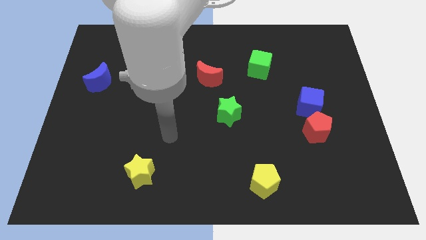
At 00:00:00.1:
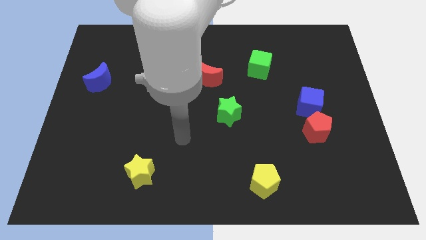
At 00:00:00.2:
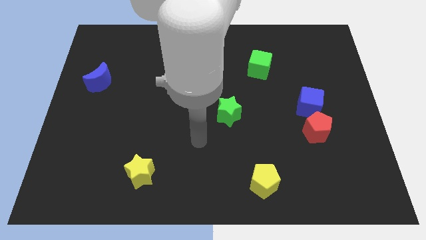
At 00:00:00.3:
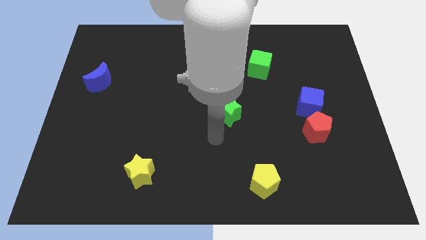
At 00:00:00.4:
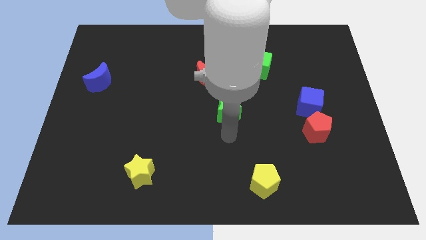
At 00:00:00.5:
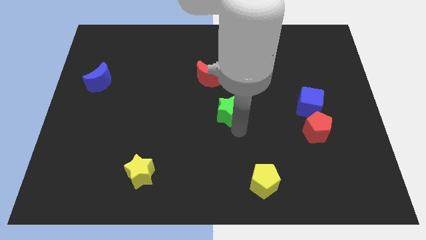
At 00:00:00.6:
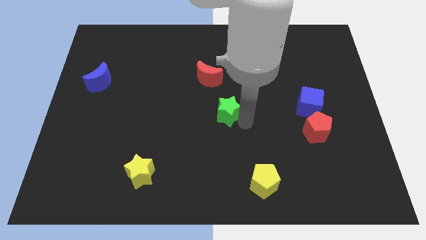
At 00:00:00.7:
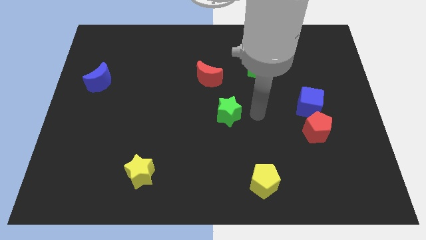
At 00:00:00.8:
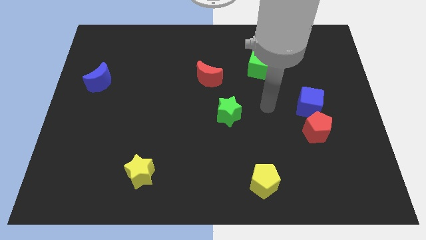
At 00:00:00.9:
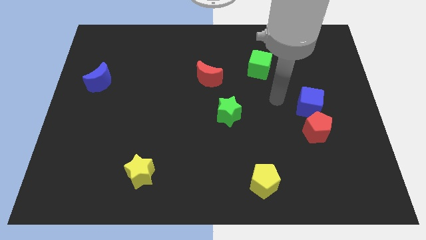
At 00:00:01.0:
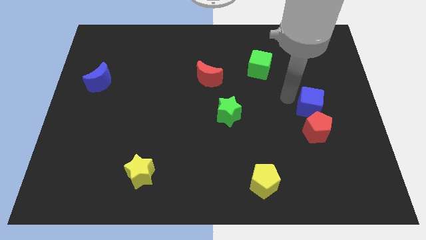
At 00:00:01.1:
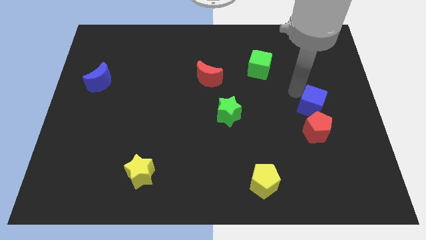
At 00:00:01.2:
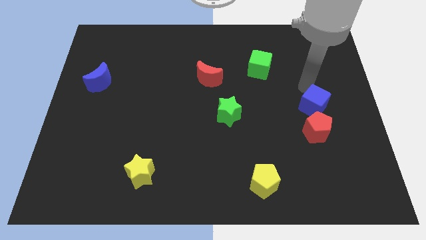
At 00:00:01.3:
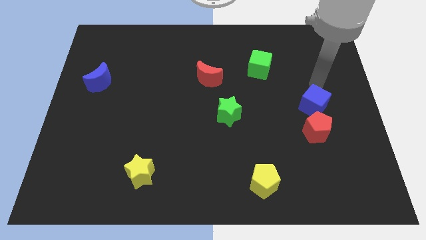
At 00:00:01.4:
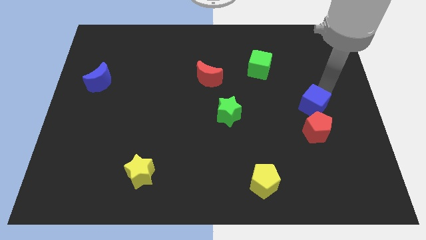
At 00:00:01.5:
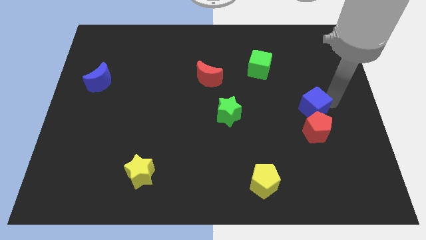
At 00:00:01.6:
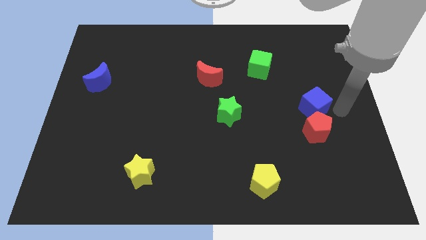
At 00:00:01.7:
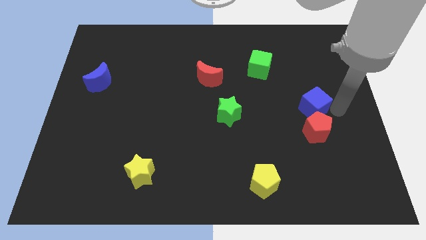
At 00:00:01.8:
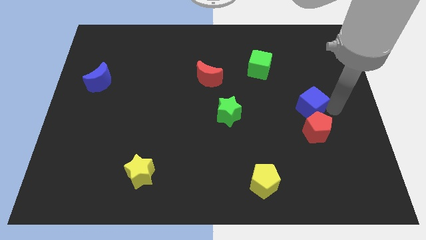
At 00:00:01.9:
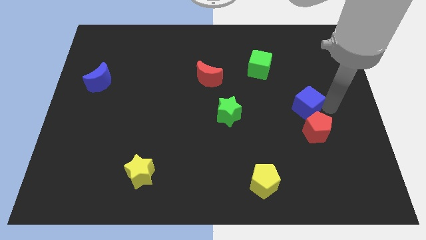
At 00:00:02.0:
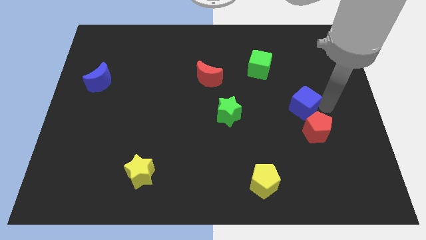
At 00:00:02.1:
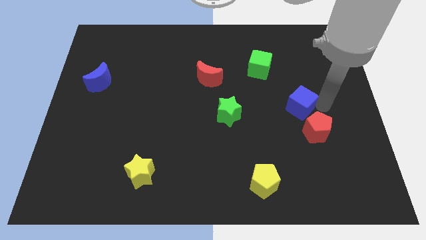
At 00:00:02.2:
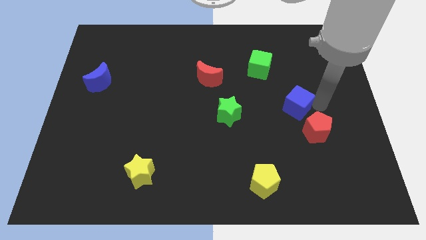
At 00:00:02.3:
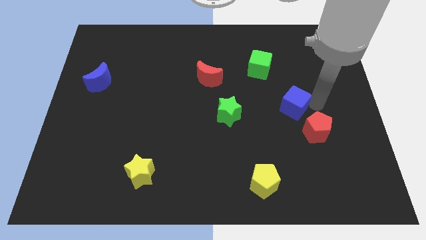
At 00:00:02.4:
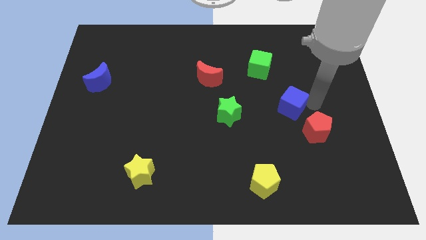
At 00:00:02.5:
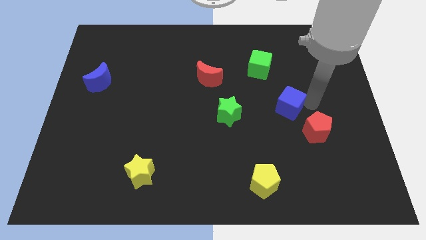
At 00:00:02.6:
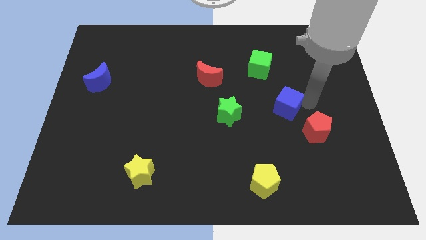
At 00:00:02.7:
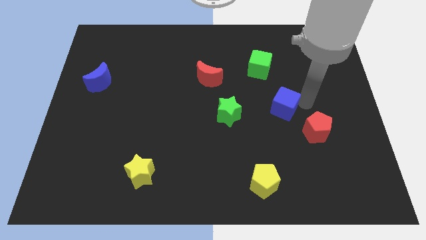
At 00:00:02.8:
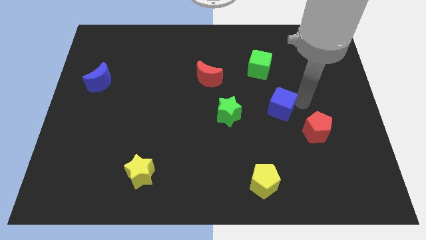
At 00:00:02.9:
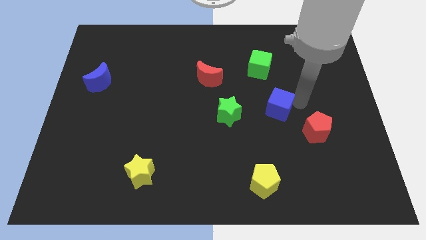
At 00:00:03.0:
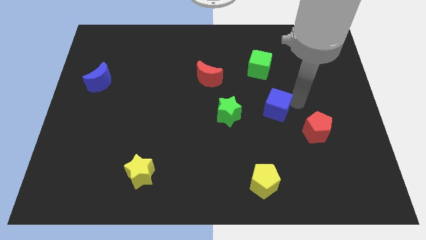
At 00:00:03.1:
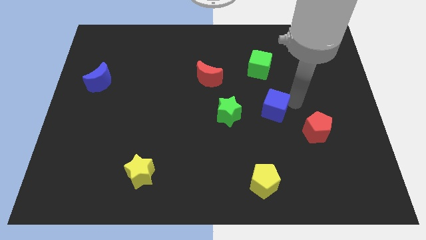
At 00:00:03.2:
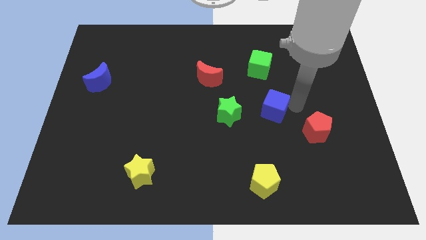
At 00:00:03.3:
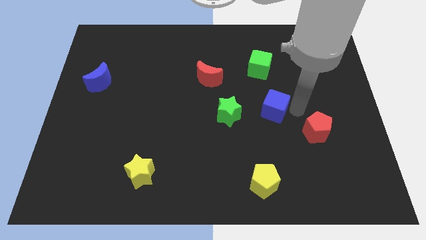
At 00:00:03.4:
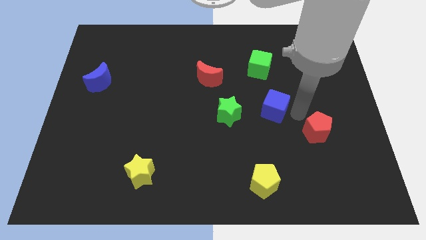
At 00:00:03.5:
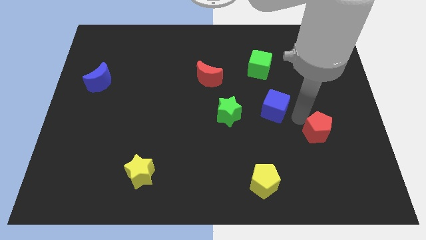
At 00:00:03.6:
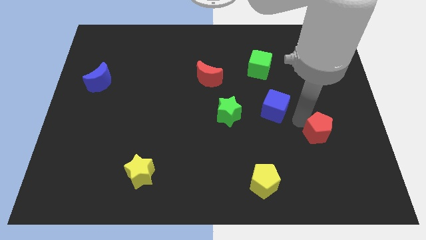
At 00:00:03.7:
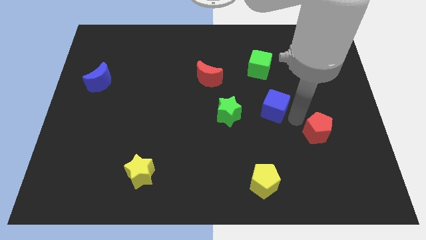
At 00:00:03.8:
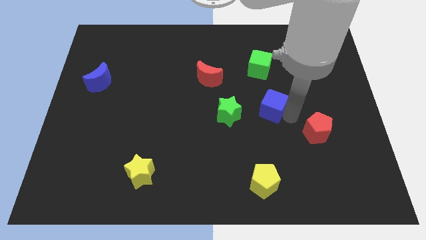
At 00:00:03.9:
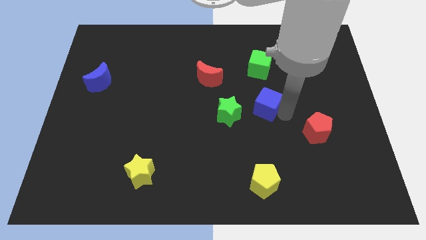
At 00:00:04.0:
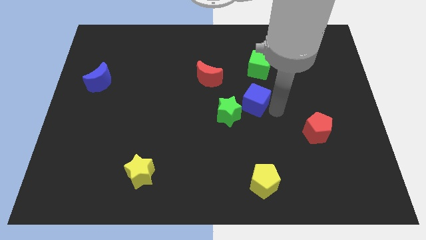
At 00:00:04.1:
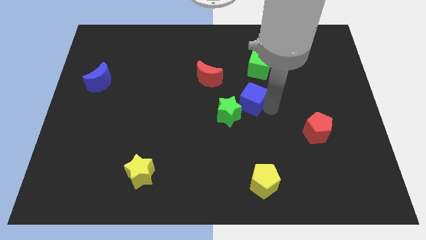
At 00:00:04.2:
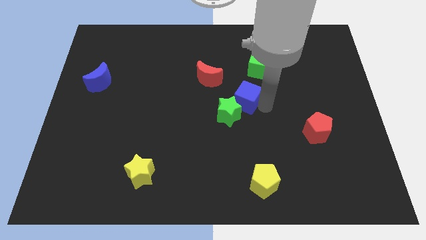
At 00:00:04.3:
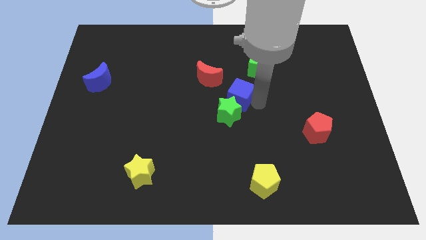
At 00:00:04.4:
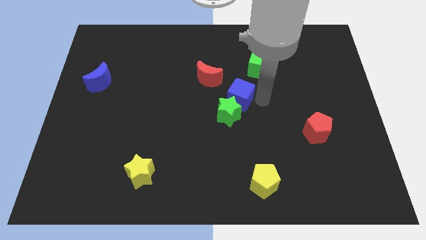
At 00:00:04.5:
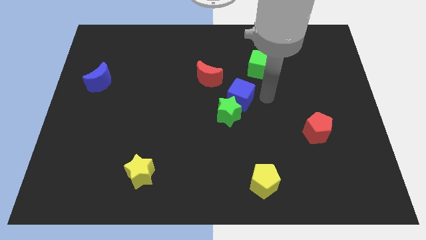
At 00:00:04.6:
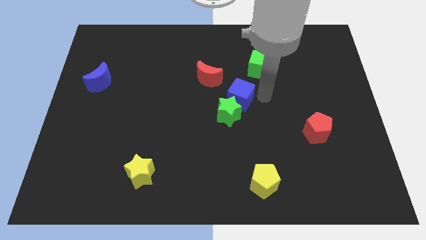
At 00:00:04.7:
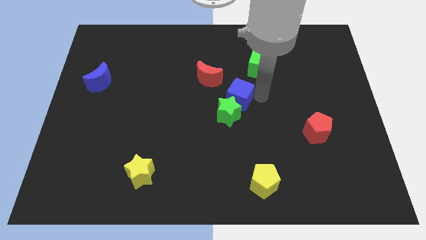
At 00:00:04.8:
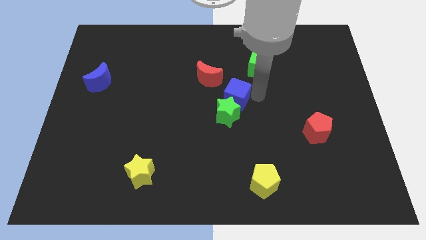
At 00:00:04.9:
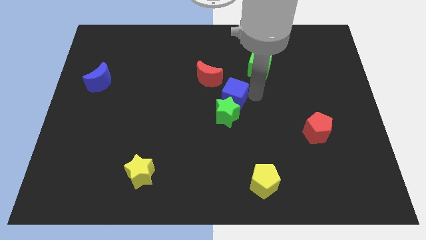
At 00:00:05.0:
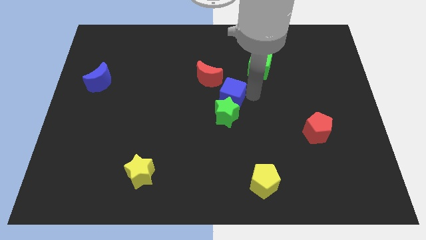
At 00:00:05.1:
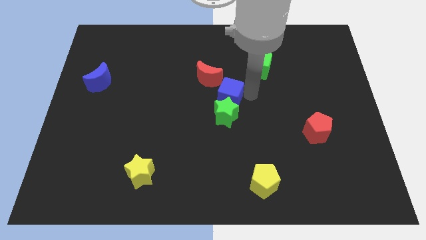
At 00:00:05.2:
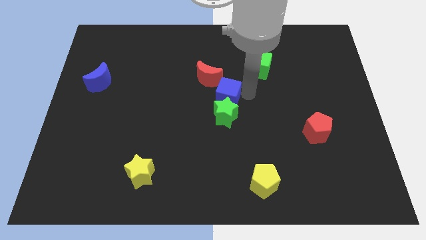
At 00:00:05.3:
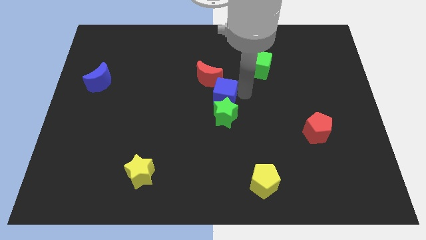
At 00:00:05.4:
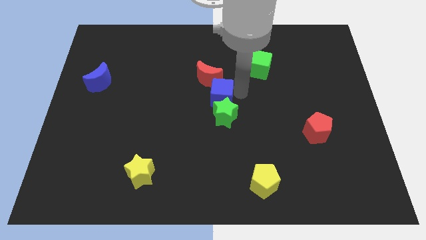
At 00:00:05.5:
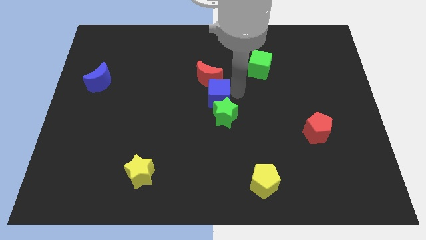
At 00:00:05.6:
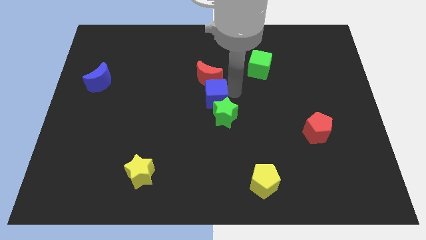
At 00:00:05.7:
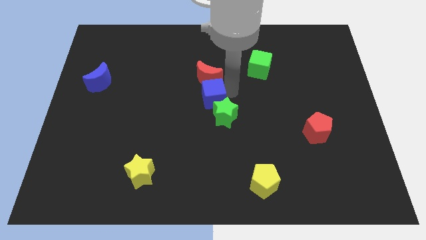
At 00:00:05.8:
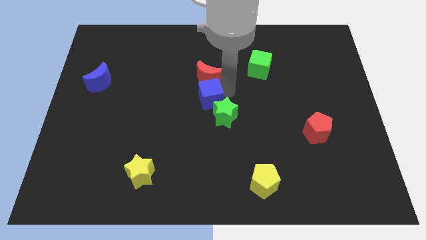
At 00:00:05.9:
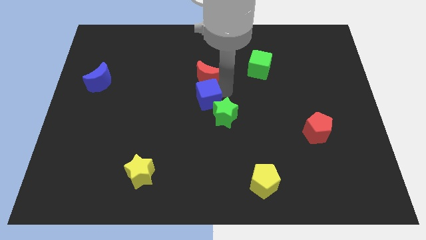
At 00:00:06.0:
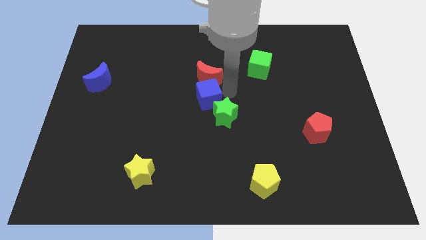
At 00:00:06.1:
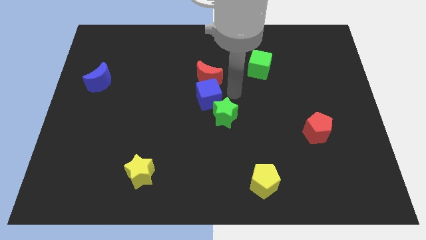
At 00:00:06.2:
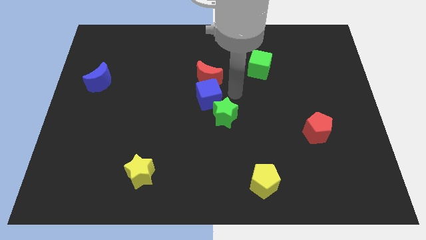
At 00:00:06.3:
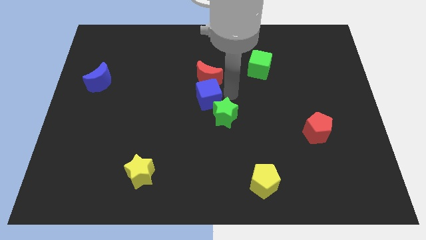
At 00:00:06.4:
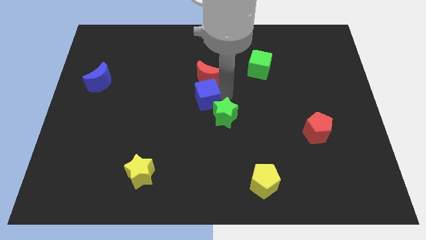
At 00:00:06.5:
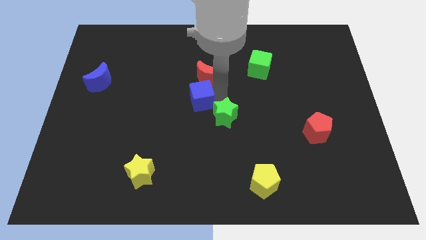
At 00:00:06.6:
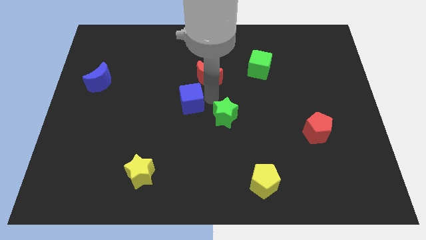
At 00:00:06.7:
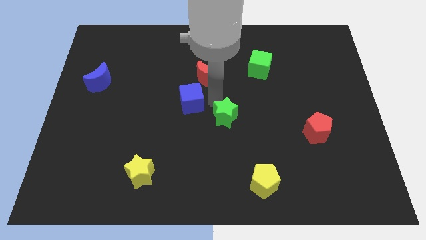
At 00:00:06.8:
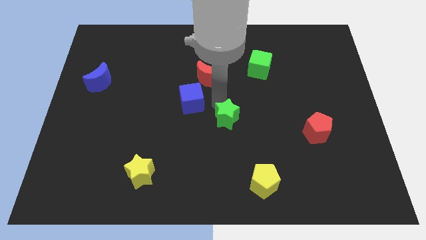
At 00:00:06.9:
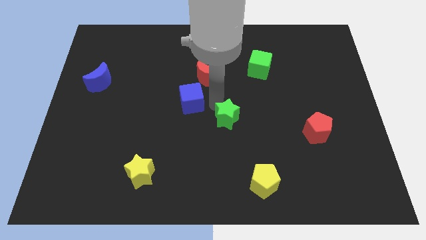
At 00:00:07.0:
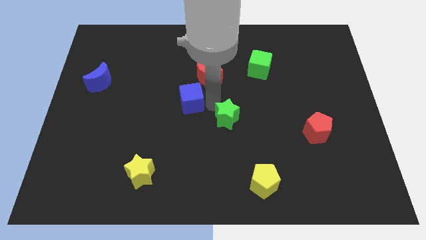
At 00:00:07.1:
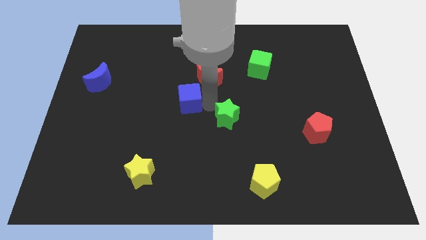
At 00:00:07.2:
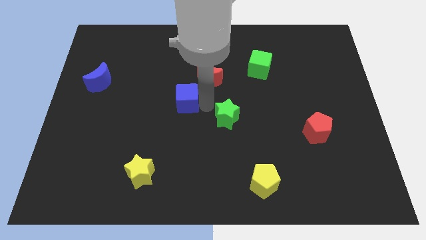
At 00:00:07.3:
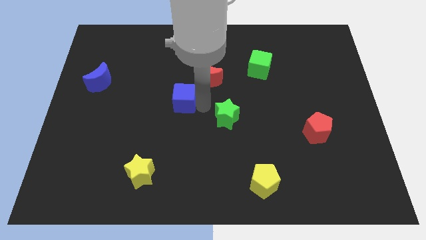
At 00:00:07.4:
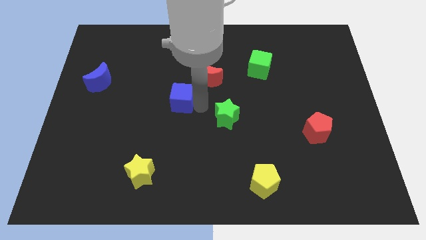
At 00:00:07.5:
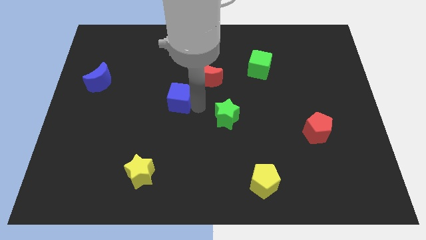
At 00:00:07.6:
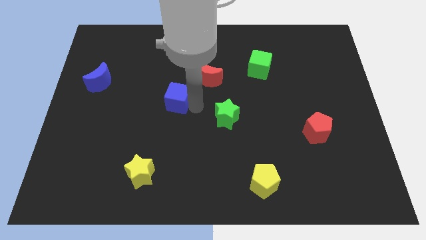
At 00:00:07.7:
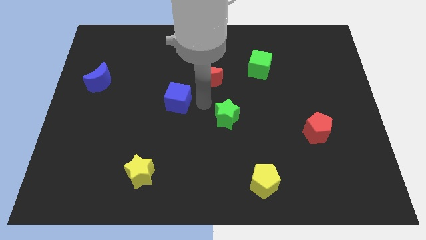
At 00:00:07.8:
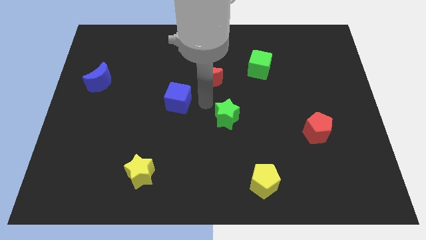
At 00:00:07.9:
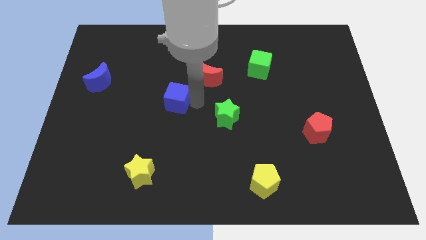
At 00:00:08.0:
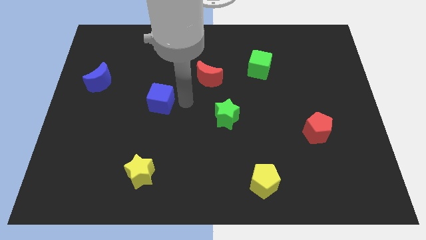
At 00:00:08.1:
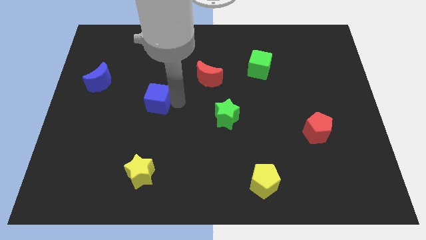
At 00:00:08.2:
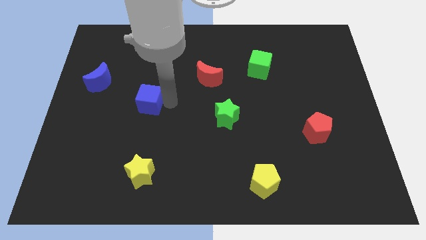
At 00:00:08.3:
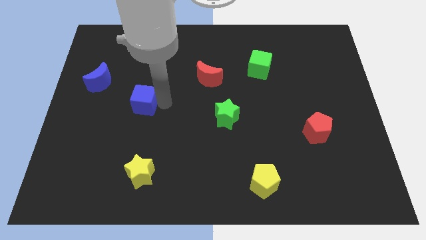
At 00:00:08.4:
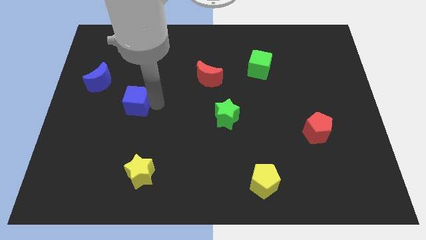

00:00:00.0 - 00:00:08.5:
move the blue cube to the bottom right side of the blue moon
